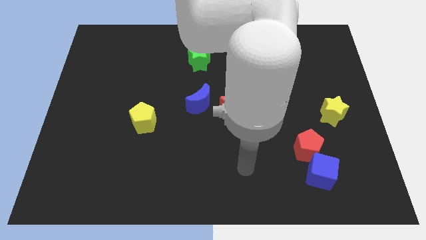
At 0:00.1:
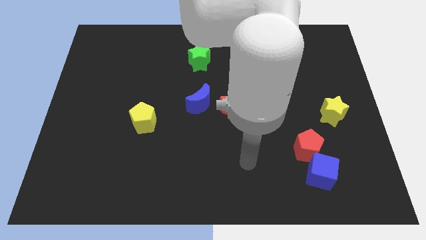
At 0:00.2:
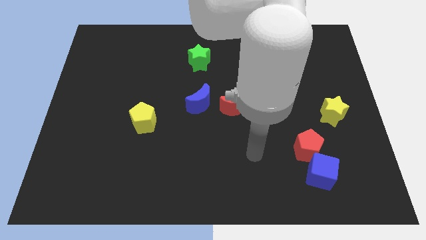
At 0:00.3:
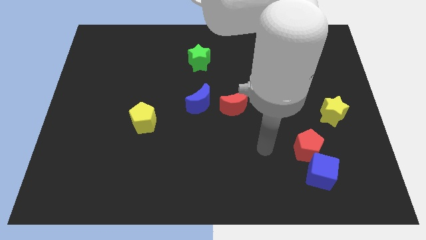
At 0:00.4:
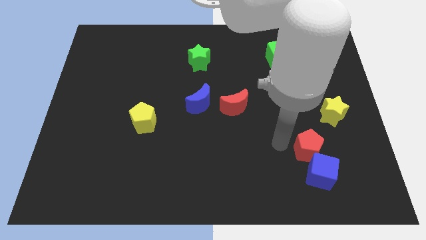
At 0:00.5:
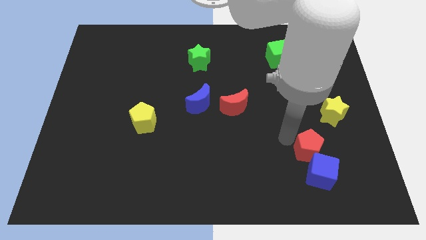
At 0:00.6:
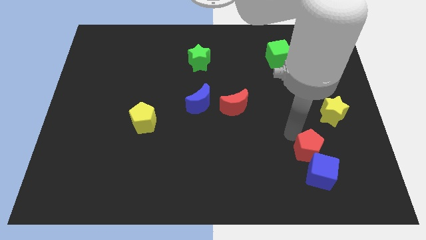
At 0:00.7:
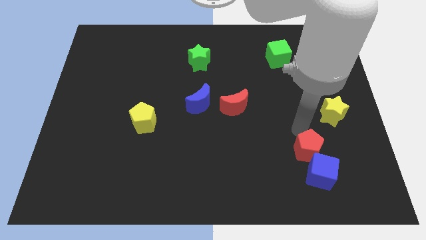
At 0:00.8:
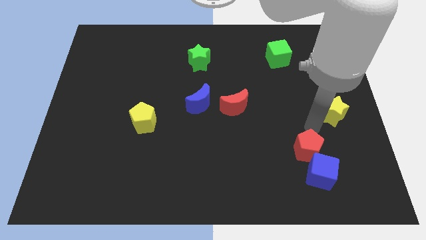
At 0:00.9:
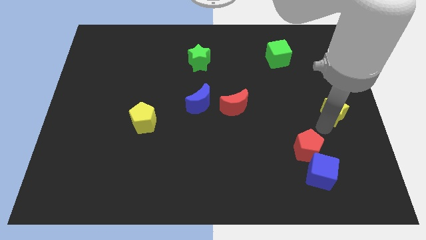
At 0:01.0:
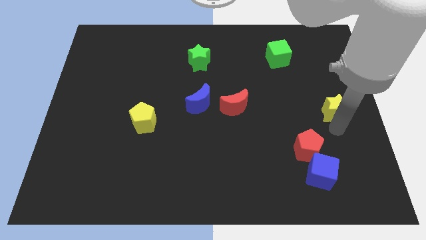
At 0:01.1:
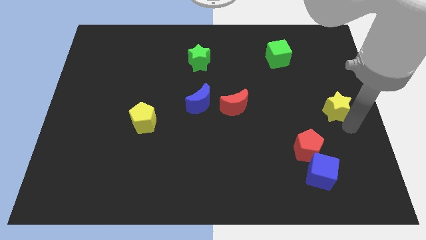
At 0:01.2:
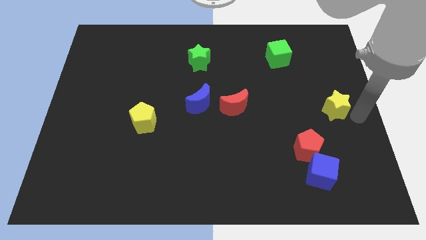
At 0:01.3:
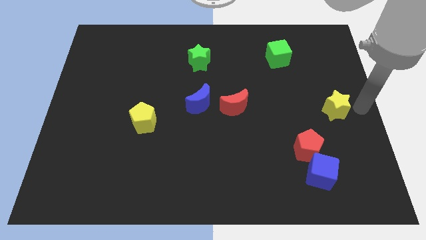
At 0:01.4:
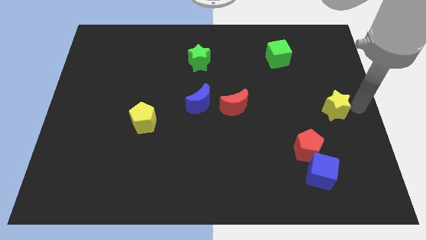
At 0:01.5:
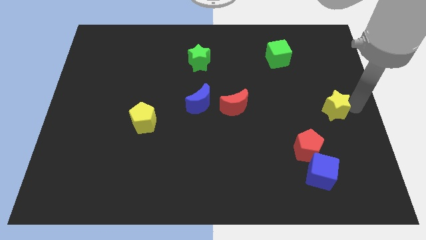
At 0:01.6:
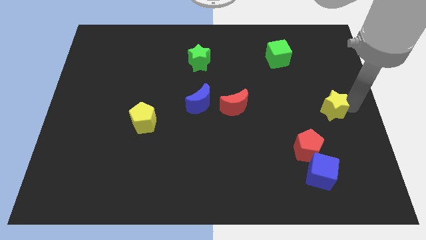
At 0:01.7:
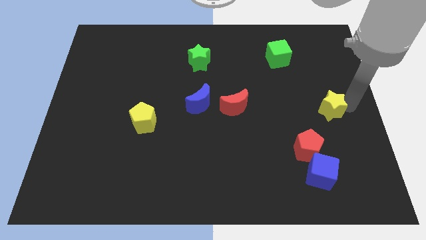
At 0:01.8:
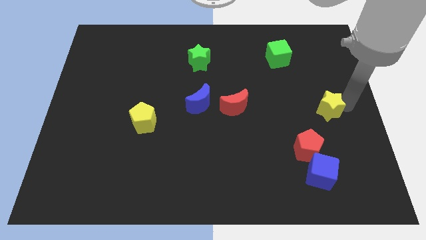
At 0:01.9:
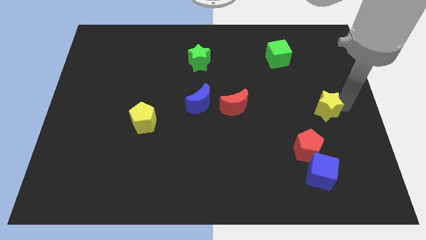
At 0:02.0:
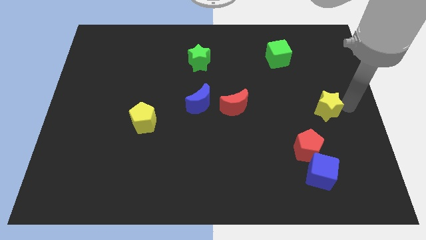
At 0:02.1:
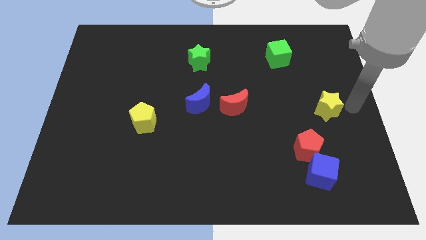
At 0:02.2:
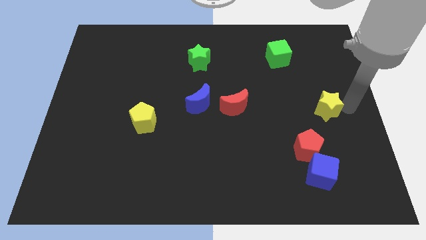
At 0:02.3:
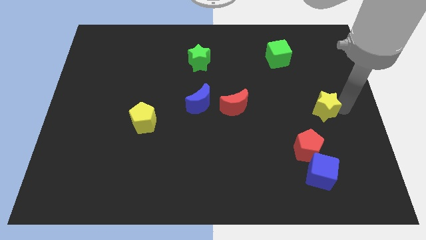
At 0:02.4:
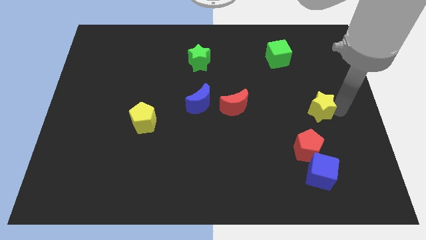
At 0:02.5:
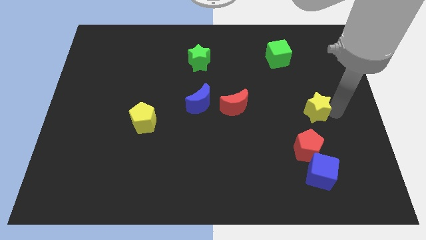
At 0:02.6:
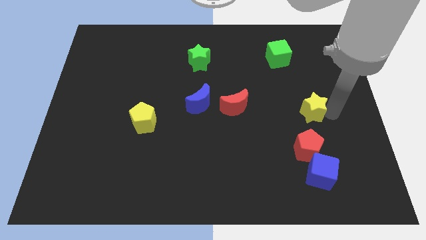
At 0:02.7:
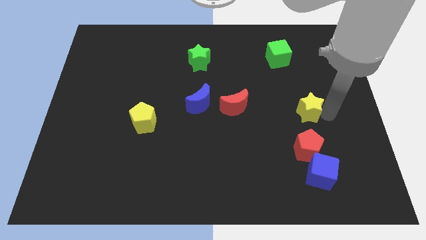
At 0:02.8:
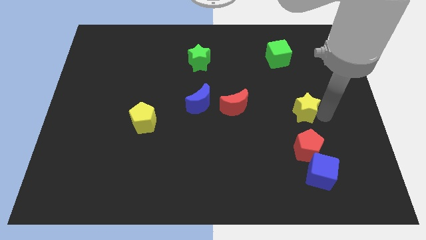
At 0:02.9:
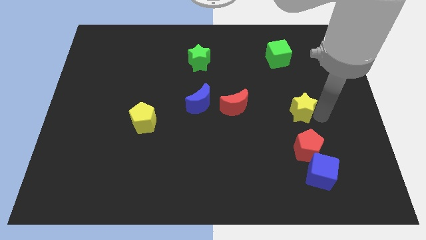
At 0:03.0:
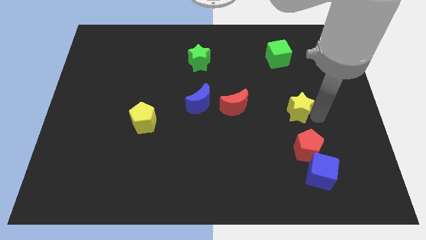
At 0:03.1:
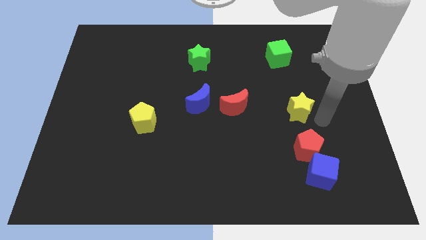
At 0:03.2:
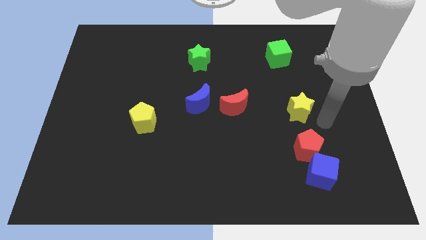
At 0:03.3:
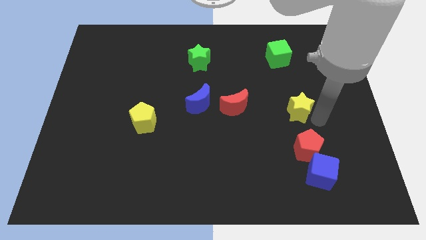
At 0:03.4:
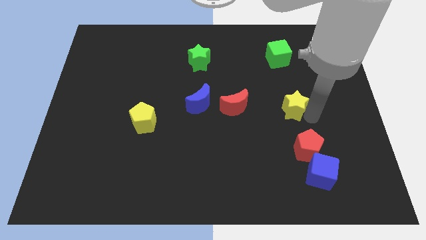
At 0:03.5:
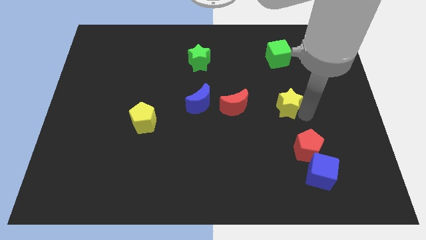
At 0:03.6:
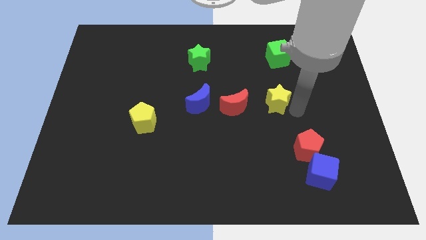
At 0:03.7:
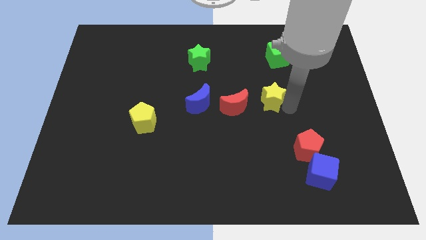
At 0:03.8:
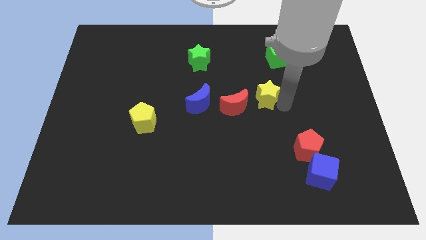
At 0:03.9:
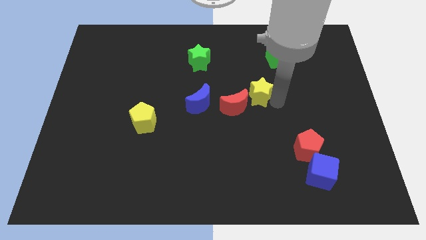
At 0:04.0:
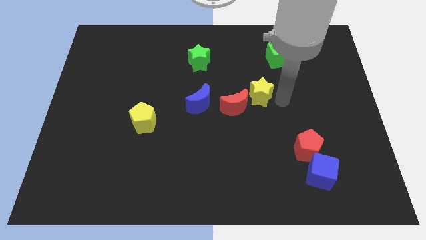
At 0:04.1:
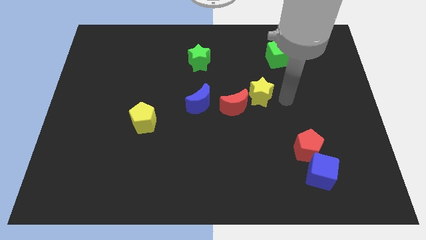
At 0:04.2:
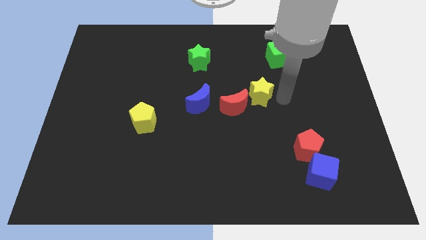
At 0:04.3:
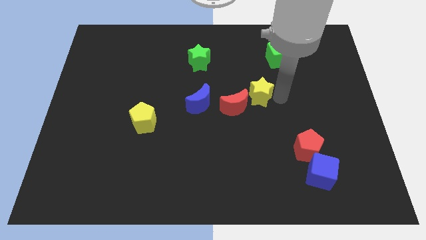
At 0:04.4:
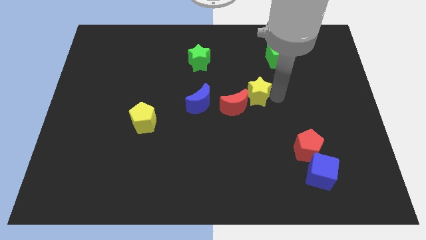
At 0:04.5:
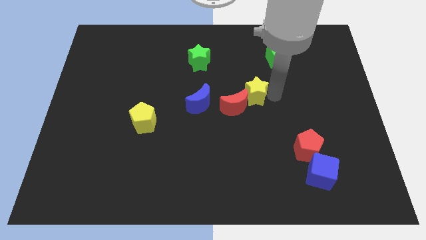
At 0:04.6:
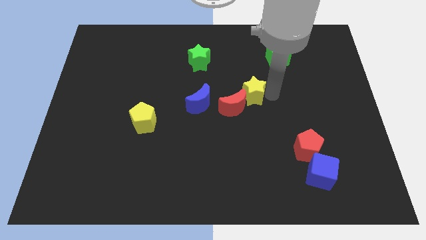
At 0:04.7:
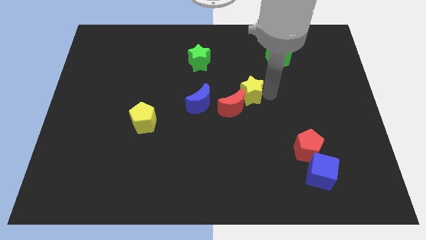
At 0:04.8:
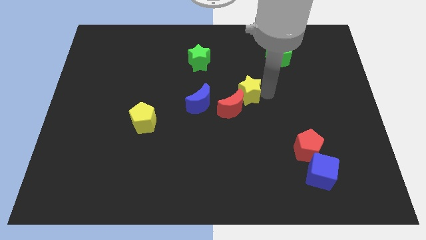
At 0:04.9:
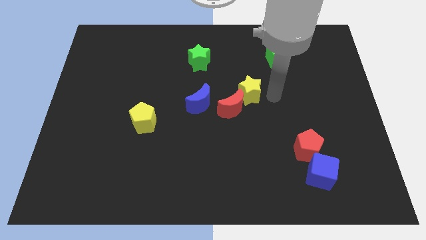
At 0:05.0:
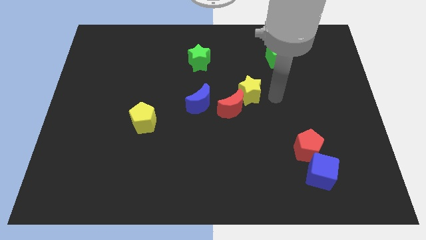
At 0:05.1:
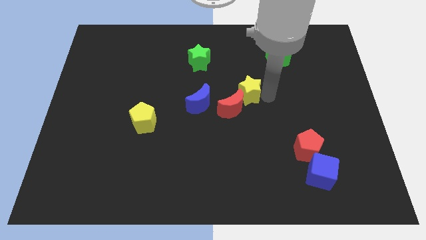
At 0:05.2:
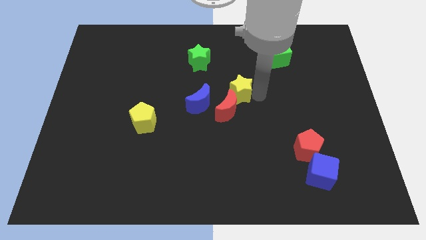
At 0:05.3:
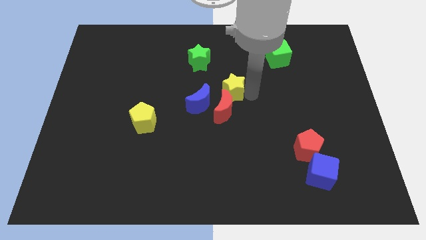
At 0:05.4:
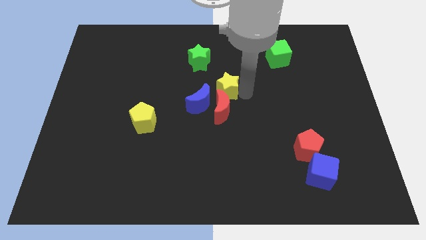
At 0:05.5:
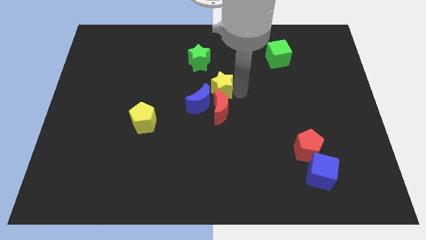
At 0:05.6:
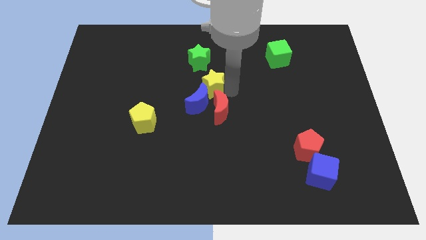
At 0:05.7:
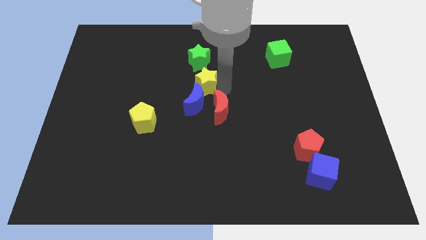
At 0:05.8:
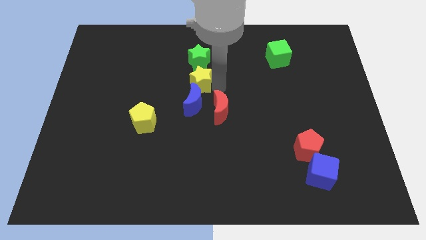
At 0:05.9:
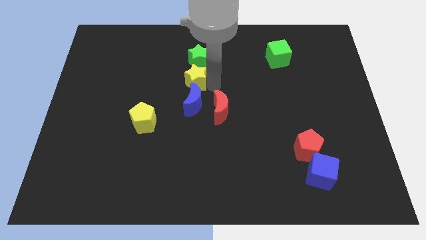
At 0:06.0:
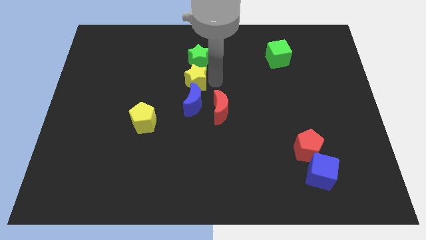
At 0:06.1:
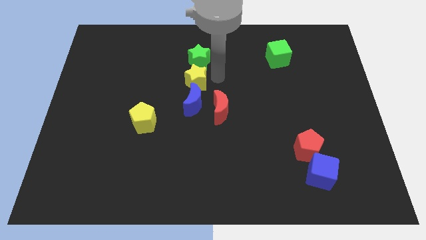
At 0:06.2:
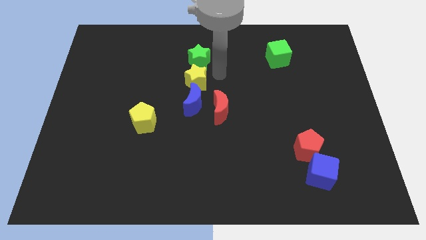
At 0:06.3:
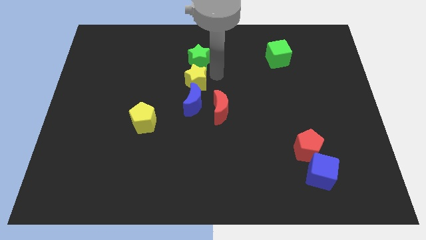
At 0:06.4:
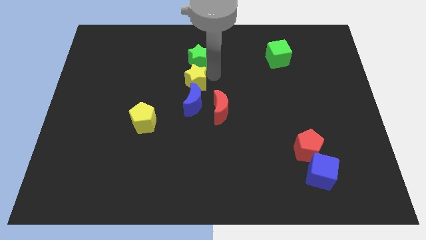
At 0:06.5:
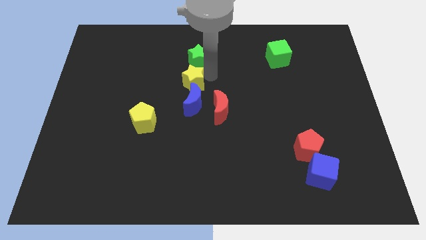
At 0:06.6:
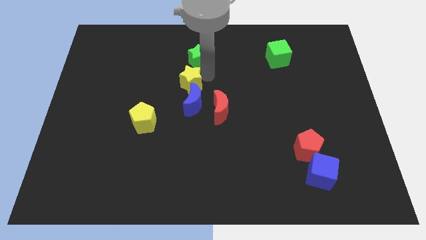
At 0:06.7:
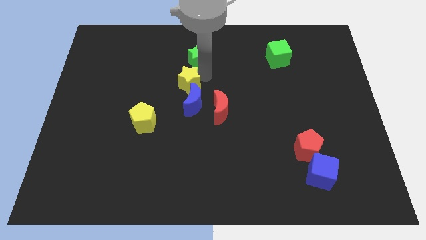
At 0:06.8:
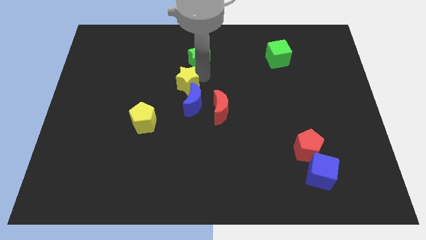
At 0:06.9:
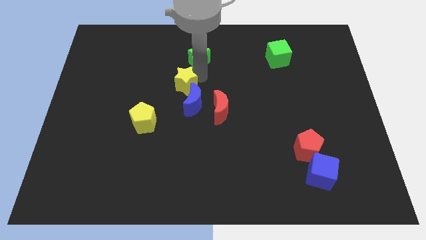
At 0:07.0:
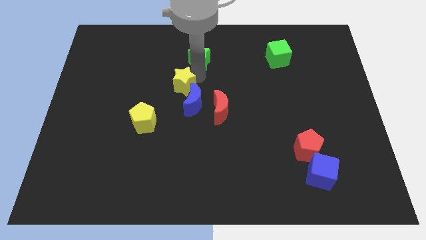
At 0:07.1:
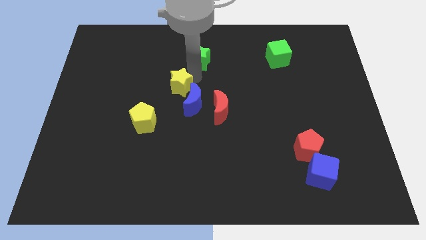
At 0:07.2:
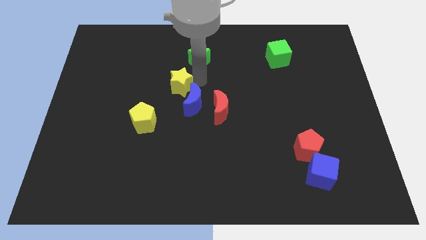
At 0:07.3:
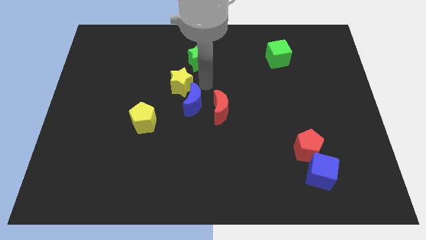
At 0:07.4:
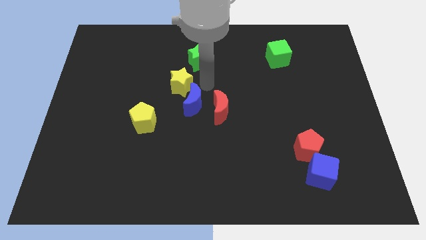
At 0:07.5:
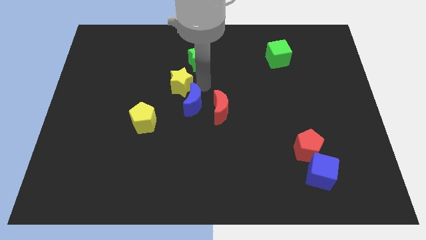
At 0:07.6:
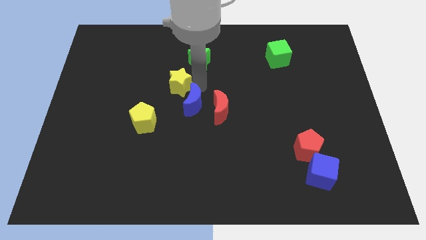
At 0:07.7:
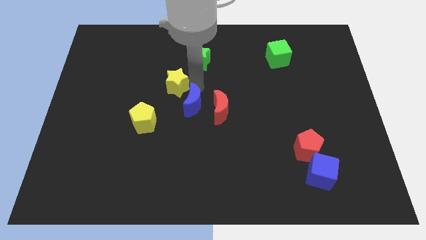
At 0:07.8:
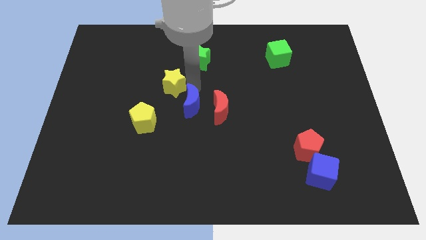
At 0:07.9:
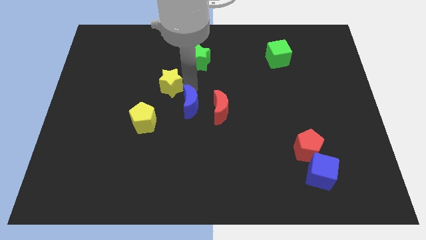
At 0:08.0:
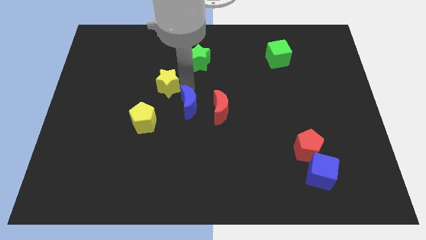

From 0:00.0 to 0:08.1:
push the yellow star to the top side of the yellow pentagon
